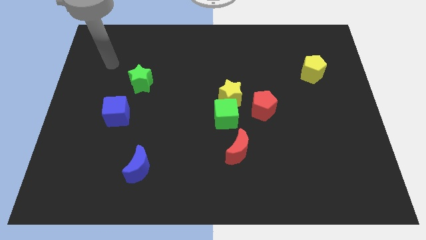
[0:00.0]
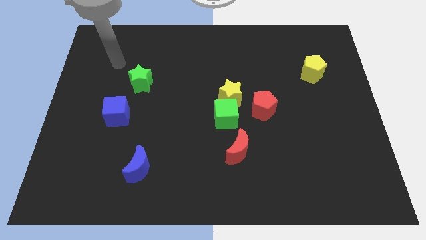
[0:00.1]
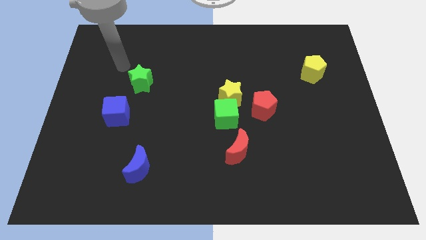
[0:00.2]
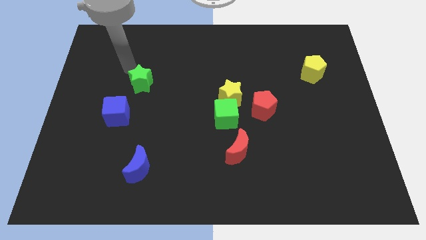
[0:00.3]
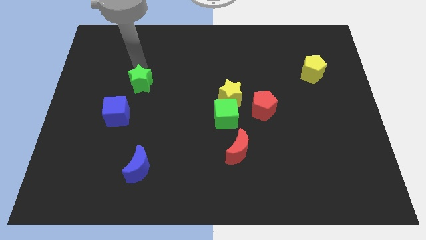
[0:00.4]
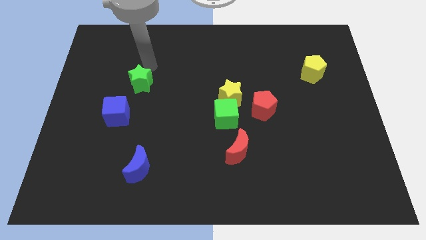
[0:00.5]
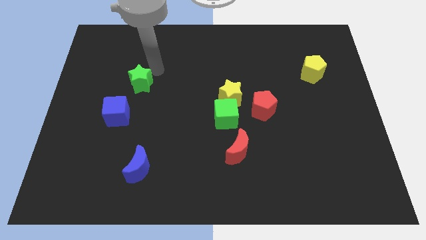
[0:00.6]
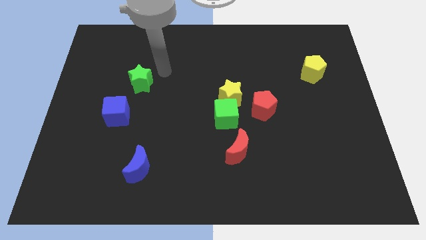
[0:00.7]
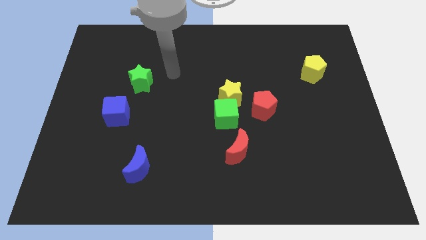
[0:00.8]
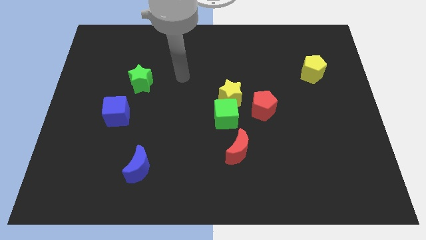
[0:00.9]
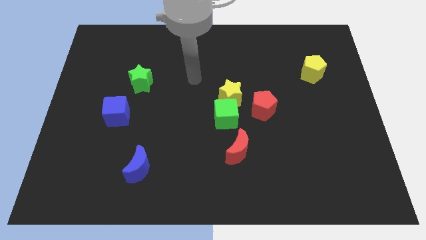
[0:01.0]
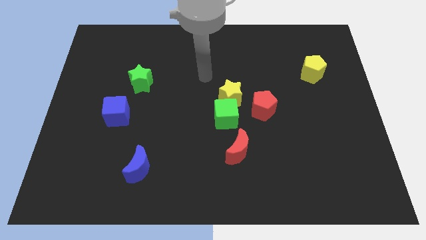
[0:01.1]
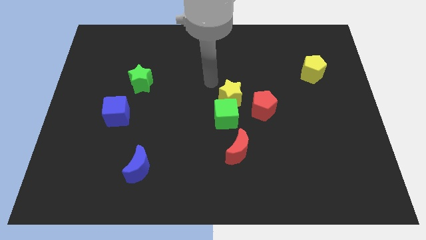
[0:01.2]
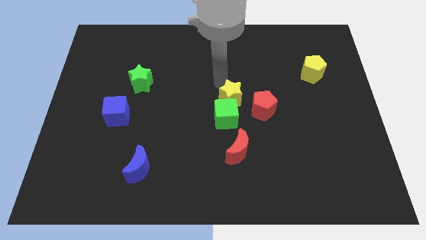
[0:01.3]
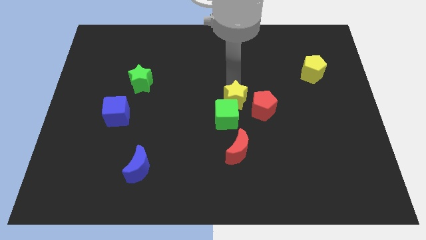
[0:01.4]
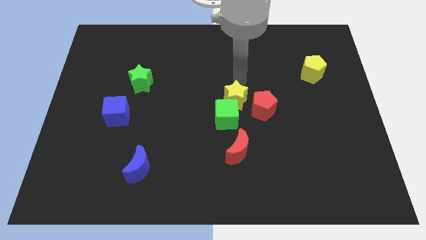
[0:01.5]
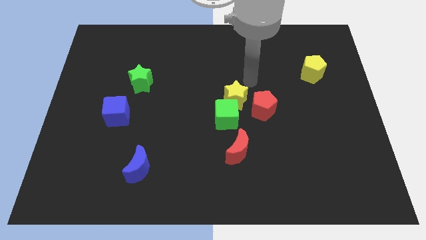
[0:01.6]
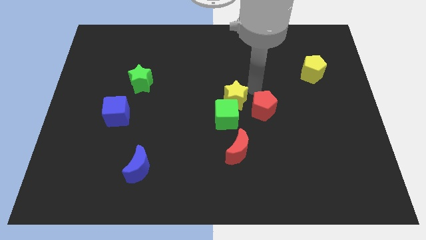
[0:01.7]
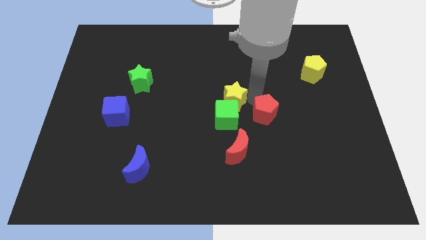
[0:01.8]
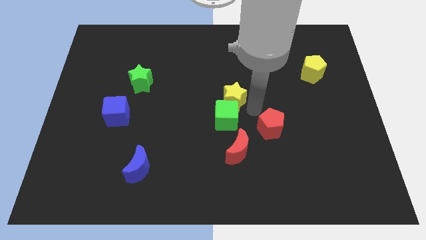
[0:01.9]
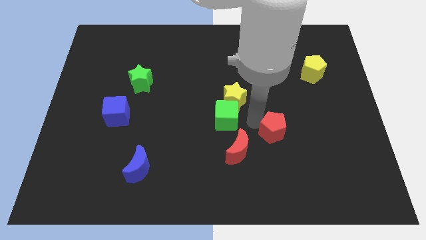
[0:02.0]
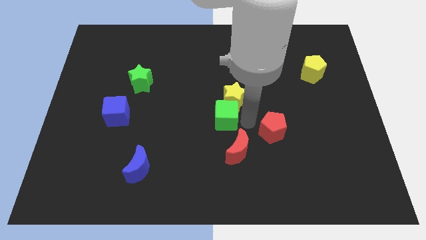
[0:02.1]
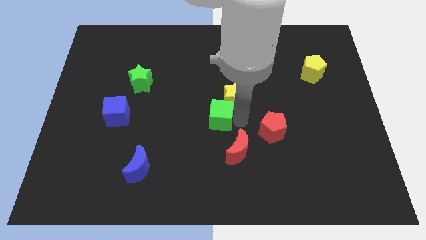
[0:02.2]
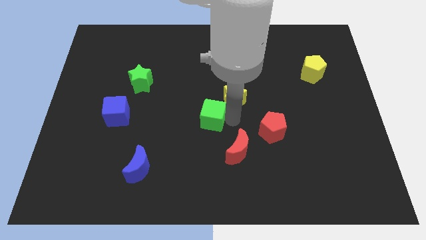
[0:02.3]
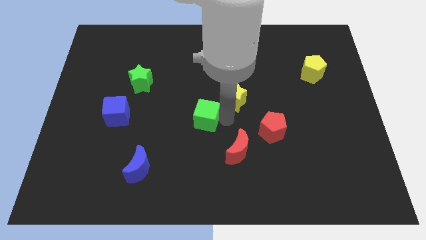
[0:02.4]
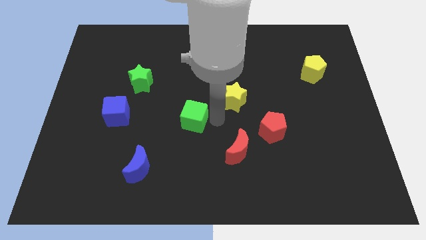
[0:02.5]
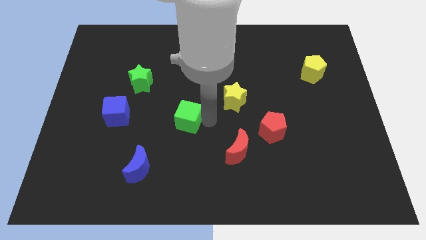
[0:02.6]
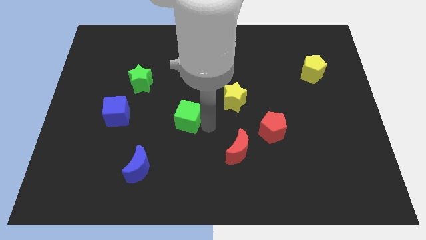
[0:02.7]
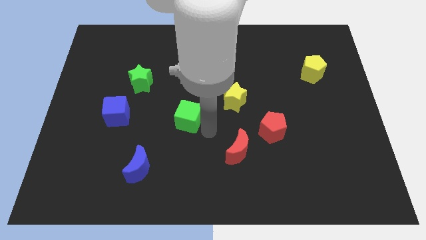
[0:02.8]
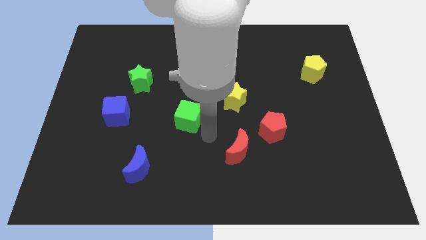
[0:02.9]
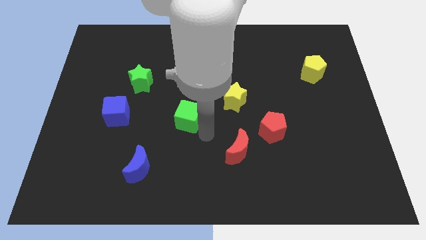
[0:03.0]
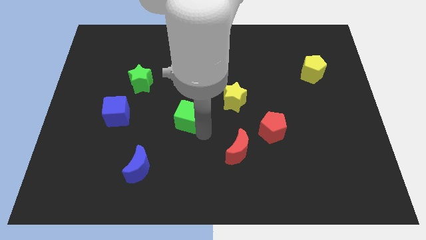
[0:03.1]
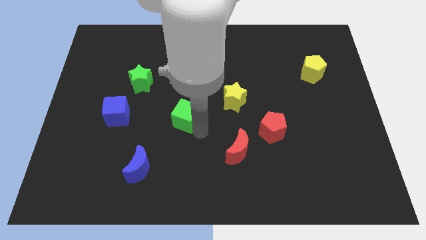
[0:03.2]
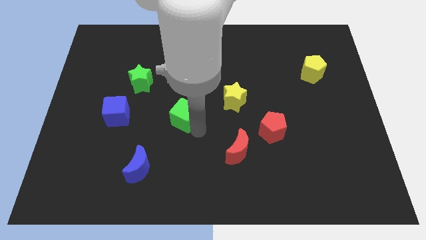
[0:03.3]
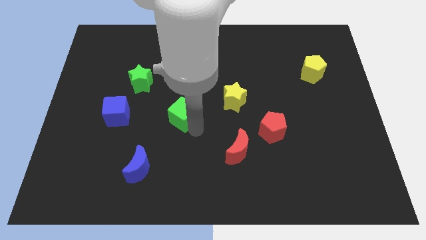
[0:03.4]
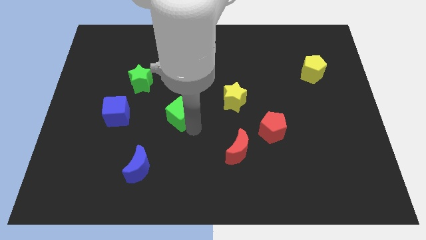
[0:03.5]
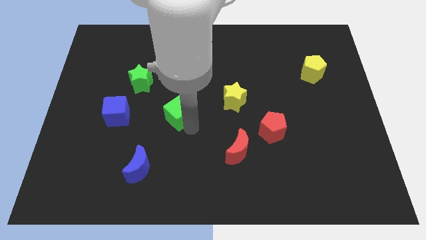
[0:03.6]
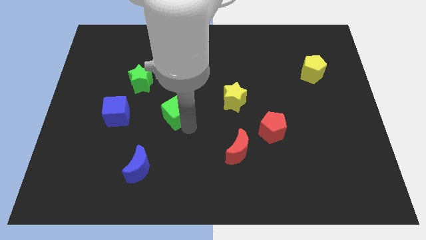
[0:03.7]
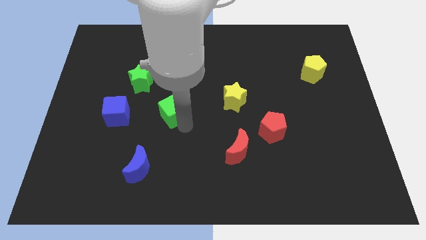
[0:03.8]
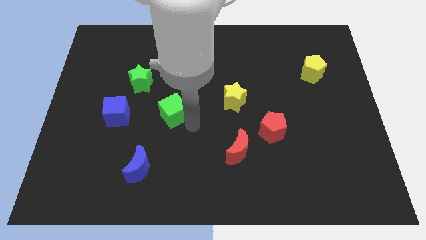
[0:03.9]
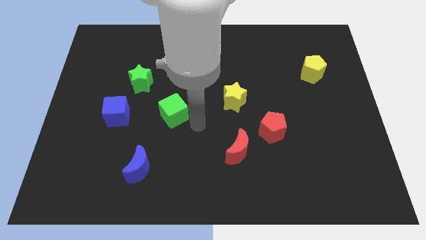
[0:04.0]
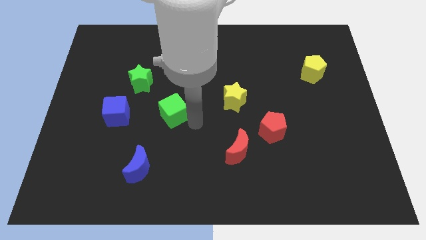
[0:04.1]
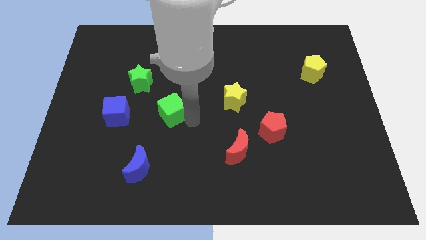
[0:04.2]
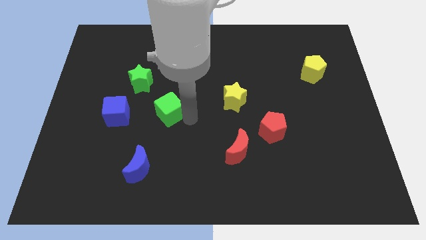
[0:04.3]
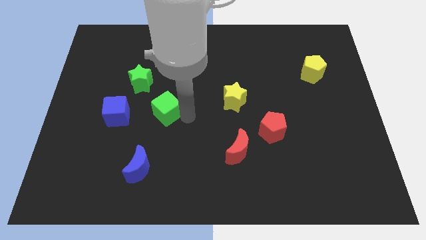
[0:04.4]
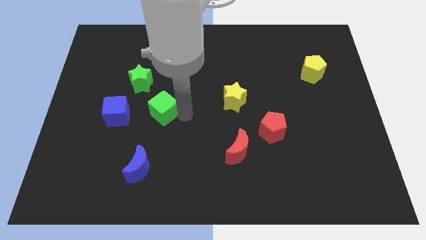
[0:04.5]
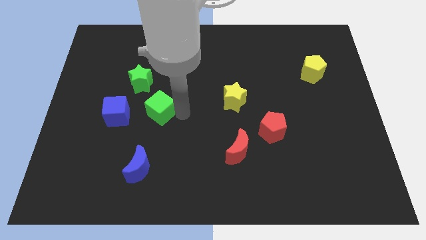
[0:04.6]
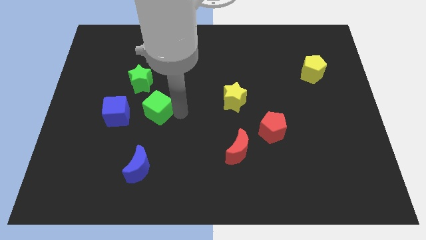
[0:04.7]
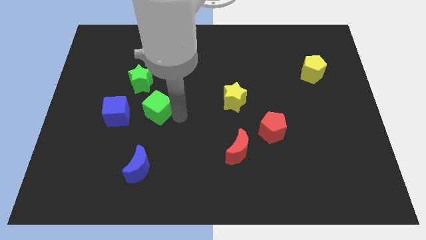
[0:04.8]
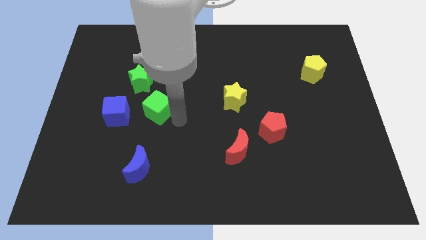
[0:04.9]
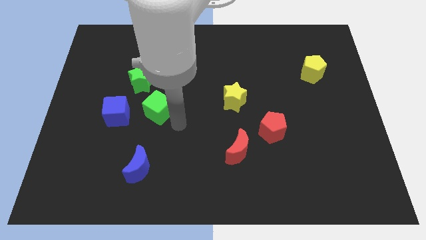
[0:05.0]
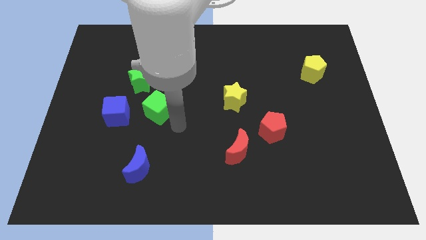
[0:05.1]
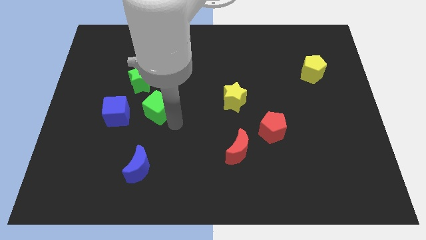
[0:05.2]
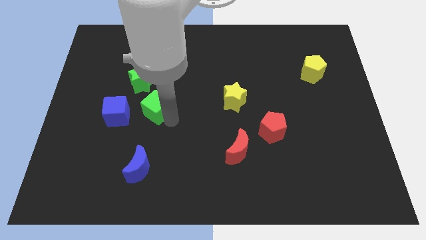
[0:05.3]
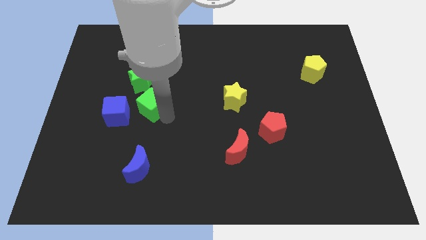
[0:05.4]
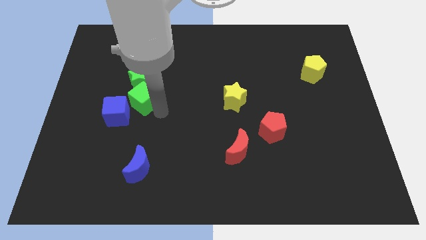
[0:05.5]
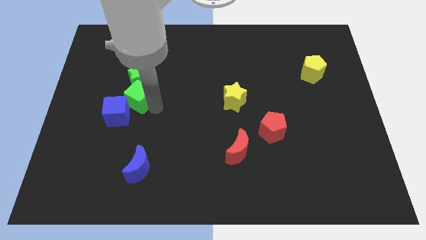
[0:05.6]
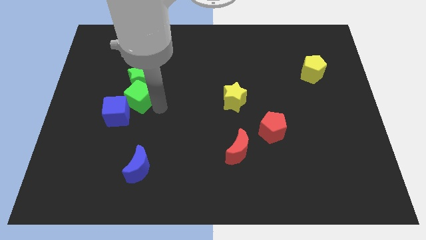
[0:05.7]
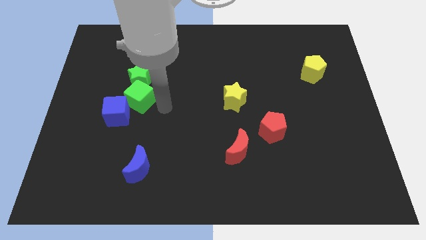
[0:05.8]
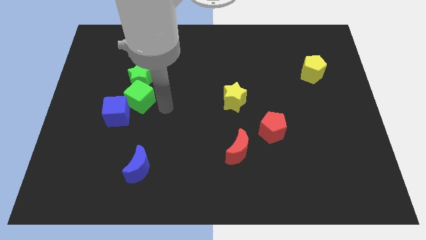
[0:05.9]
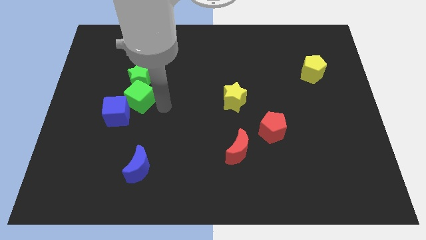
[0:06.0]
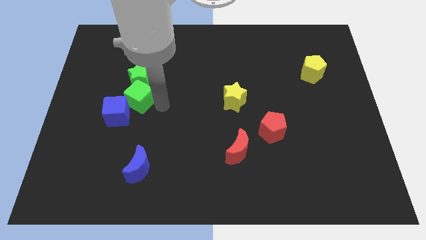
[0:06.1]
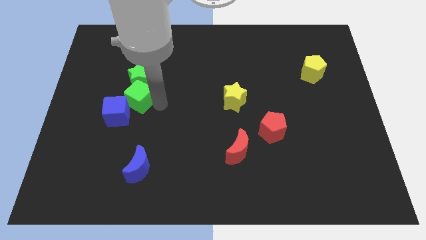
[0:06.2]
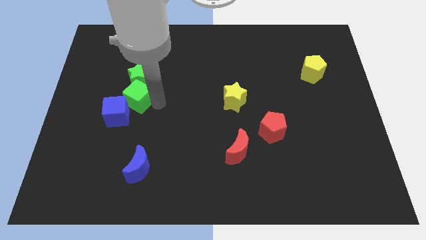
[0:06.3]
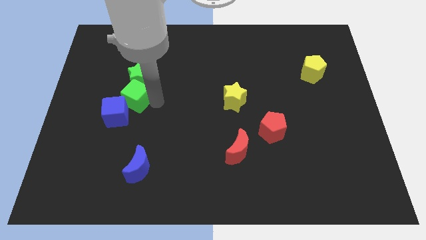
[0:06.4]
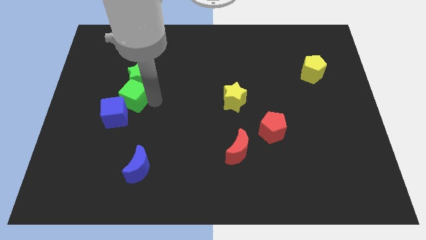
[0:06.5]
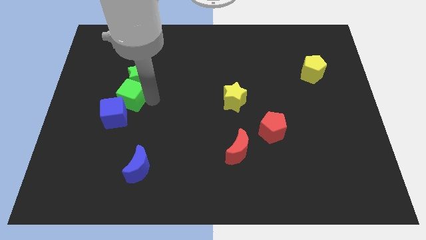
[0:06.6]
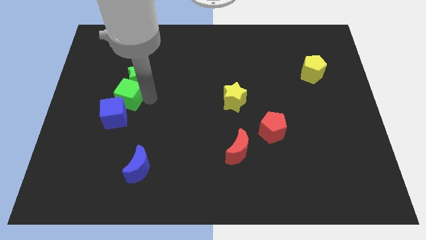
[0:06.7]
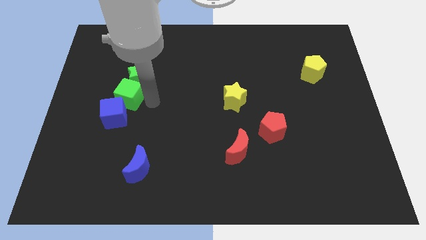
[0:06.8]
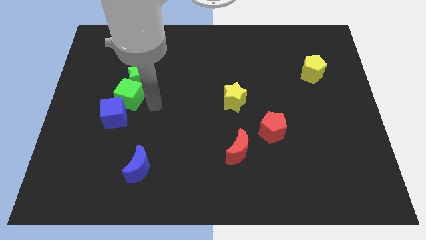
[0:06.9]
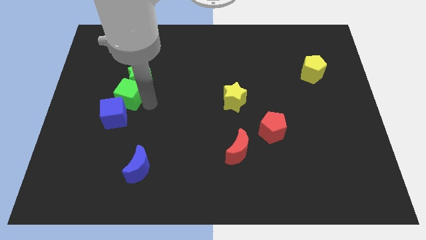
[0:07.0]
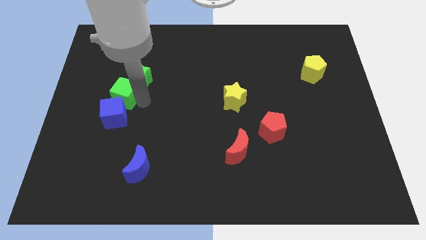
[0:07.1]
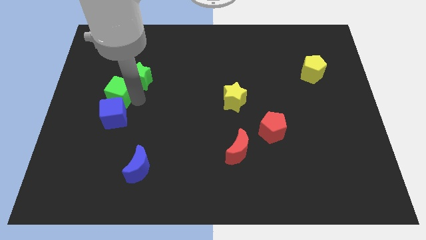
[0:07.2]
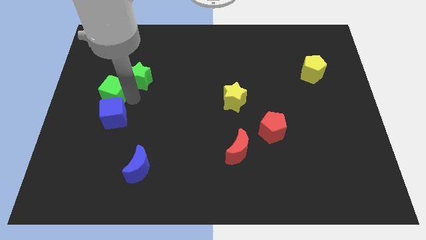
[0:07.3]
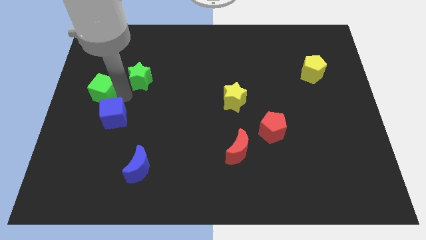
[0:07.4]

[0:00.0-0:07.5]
put the green cube to the left side

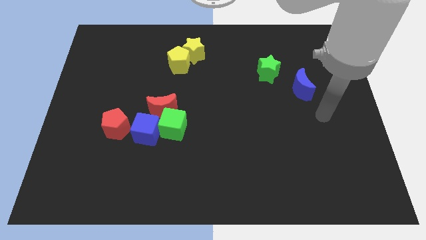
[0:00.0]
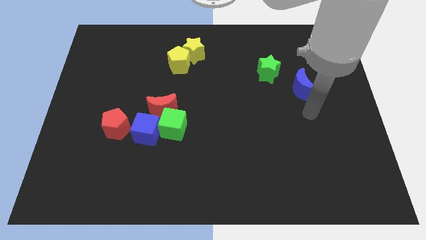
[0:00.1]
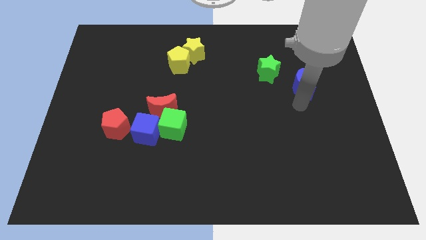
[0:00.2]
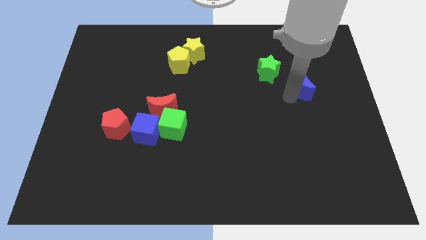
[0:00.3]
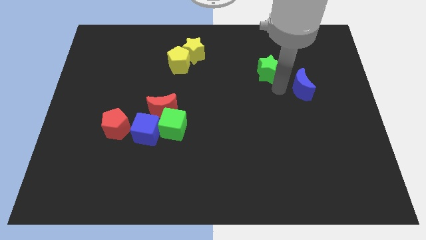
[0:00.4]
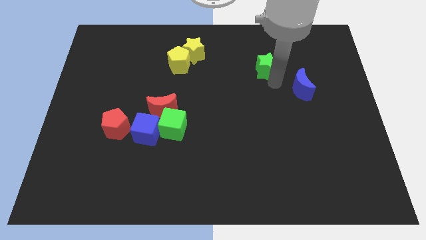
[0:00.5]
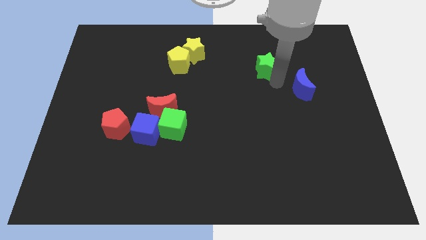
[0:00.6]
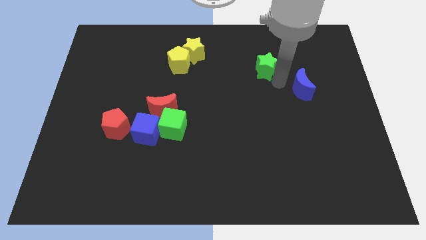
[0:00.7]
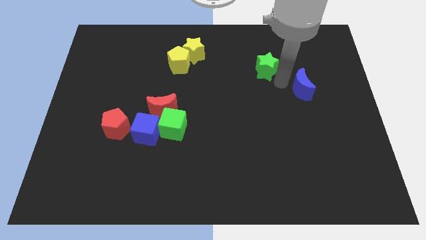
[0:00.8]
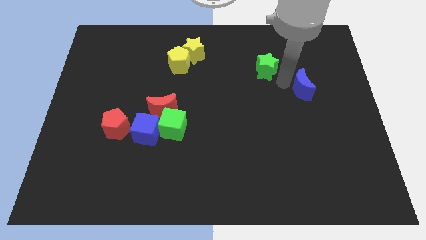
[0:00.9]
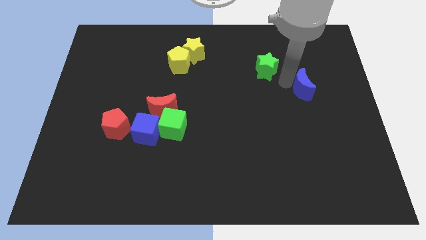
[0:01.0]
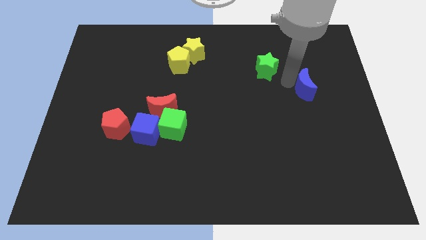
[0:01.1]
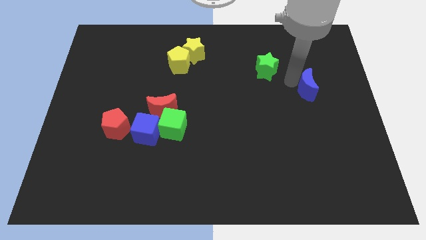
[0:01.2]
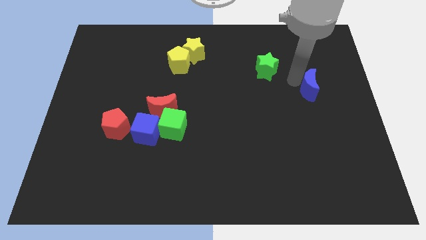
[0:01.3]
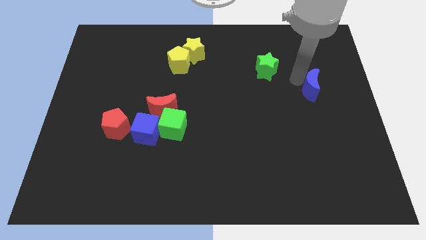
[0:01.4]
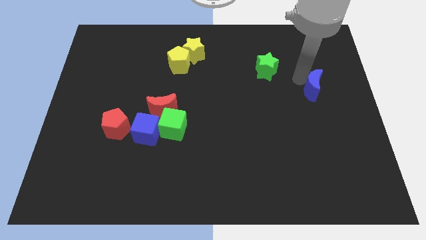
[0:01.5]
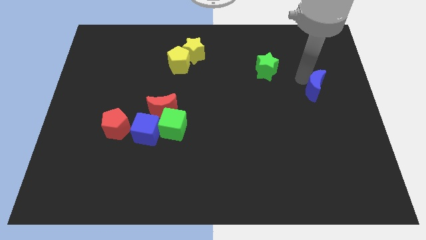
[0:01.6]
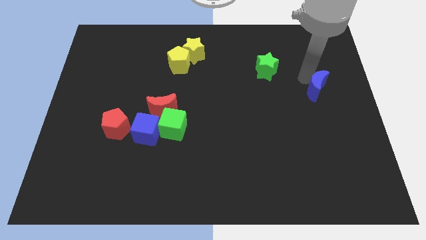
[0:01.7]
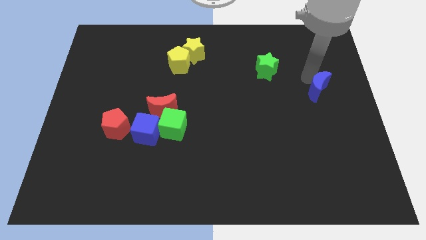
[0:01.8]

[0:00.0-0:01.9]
slide the blue moon to the center right
